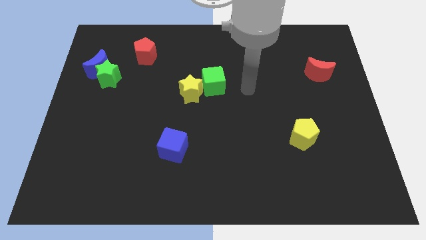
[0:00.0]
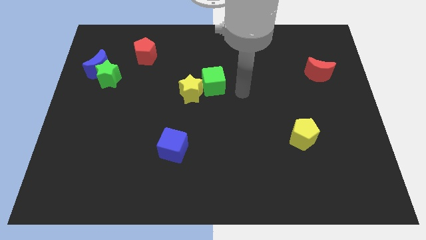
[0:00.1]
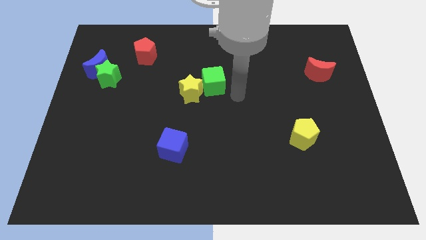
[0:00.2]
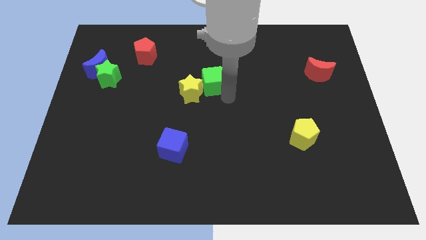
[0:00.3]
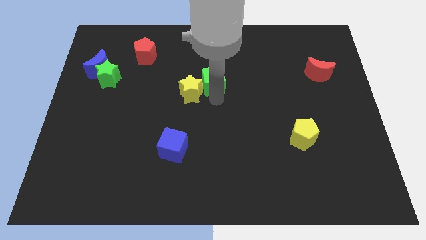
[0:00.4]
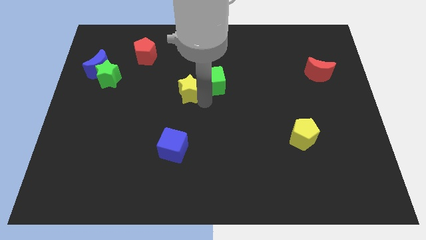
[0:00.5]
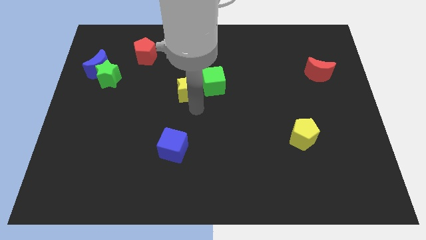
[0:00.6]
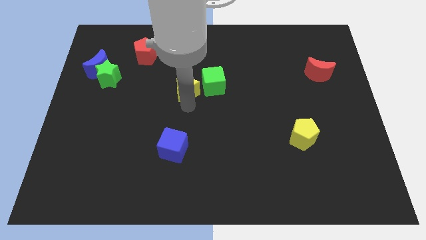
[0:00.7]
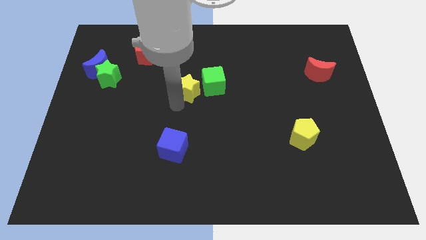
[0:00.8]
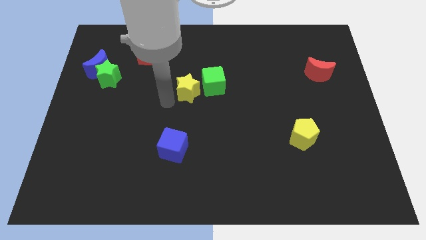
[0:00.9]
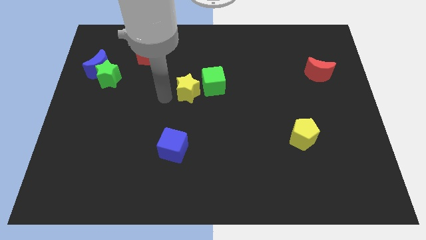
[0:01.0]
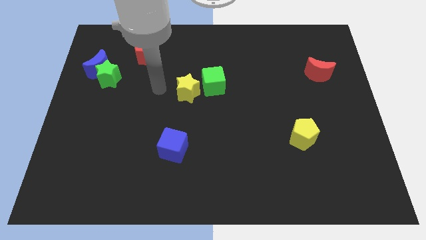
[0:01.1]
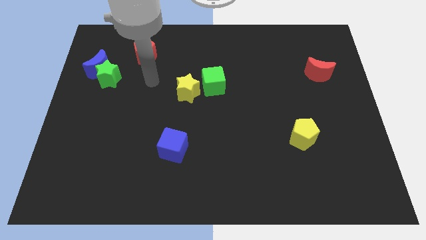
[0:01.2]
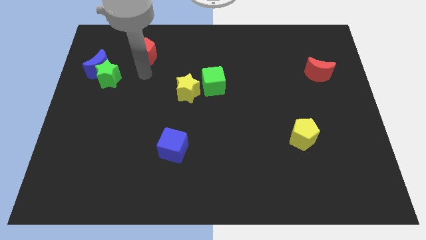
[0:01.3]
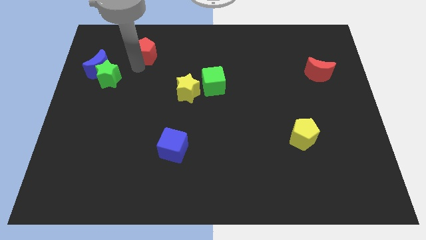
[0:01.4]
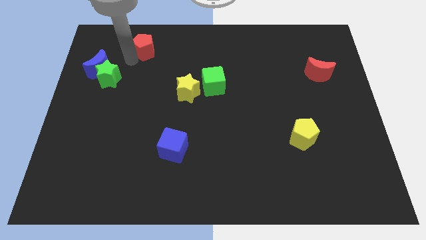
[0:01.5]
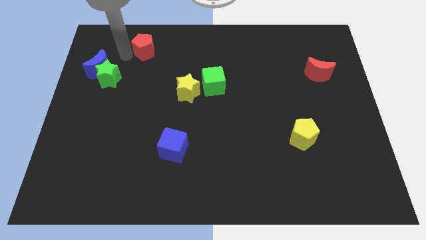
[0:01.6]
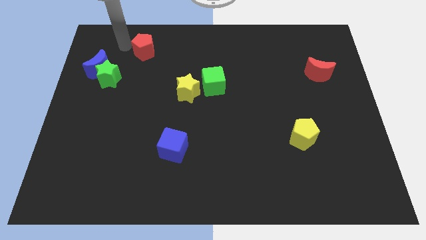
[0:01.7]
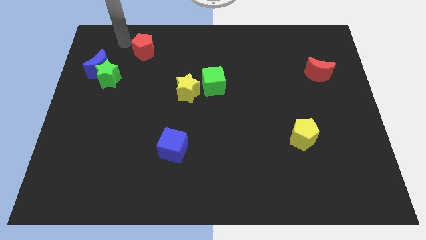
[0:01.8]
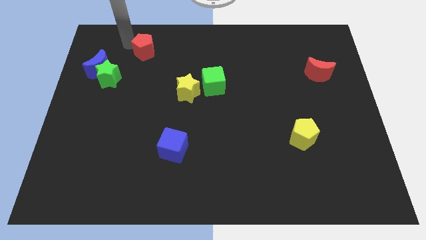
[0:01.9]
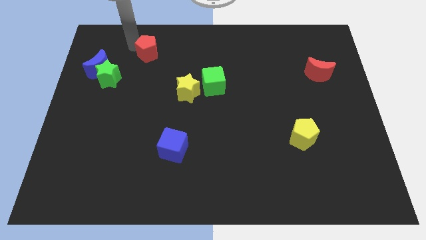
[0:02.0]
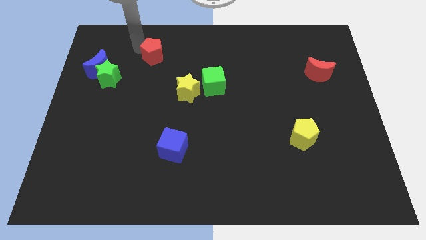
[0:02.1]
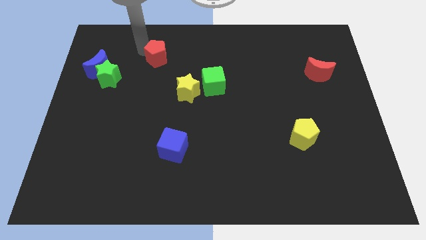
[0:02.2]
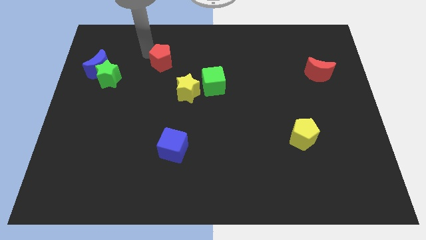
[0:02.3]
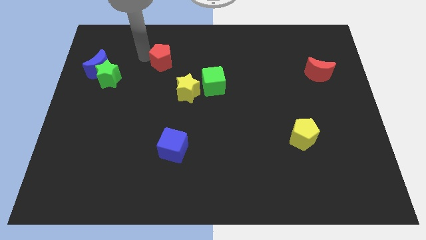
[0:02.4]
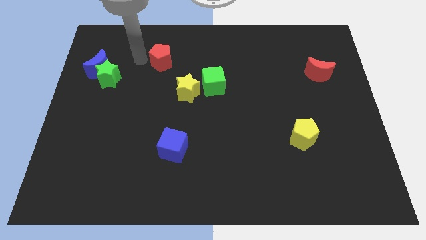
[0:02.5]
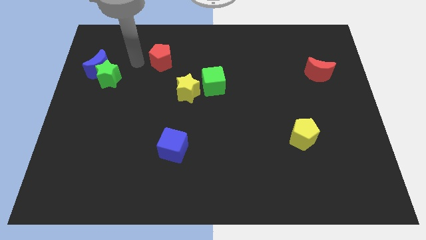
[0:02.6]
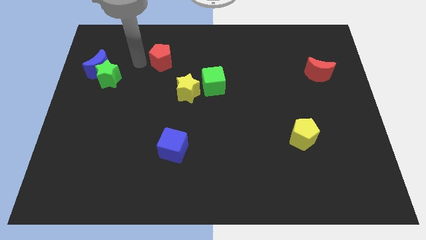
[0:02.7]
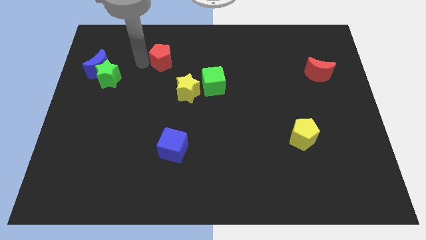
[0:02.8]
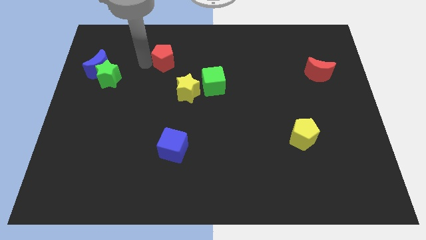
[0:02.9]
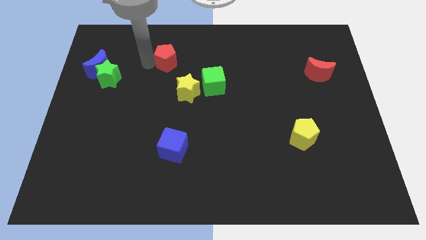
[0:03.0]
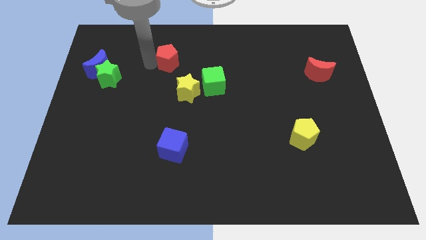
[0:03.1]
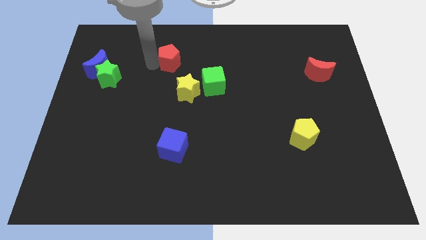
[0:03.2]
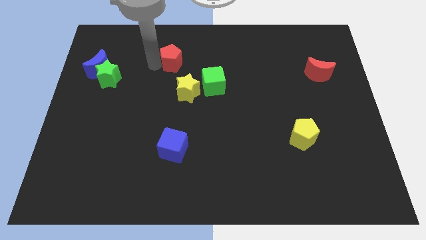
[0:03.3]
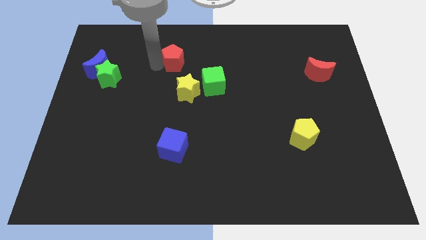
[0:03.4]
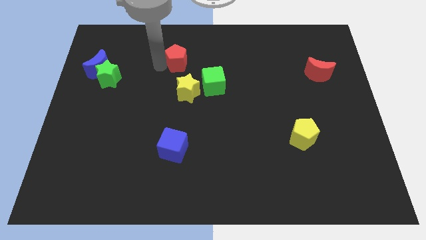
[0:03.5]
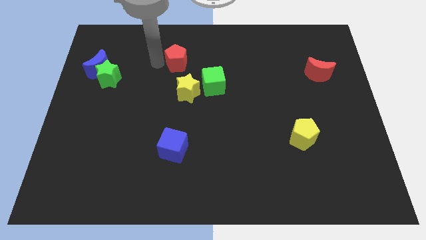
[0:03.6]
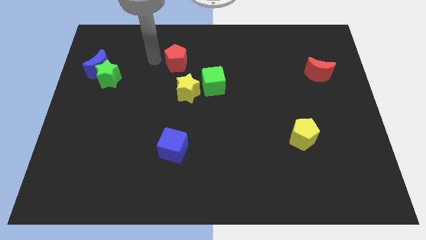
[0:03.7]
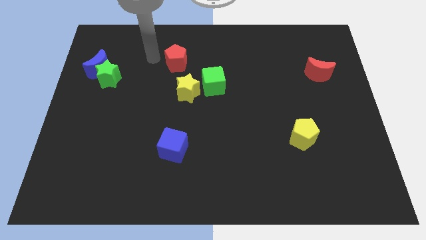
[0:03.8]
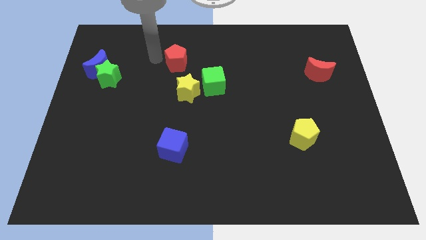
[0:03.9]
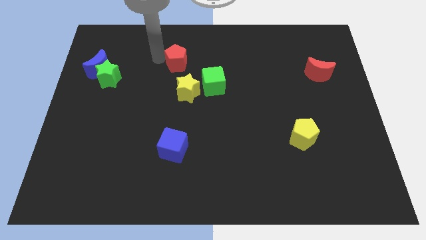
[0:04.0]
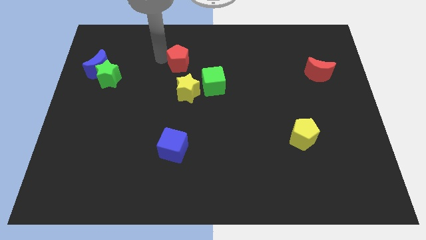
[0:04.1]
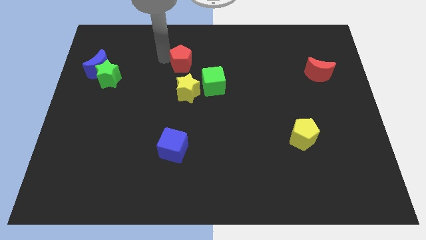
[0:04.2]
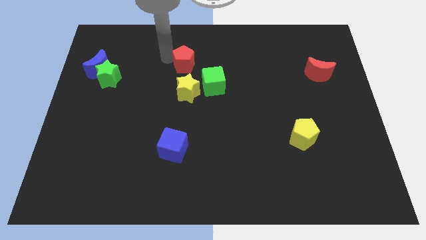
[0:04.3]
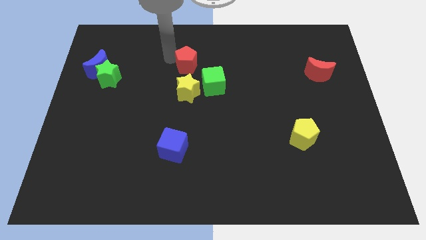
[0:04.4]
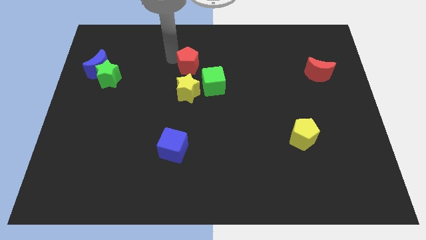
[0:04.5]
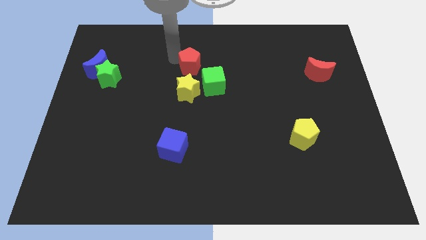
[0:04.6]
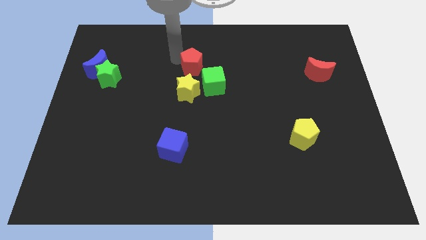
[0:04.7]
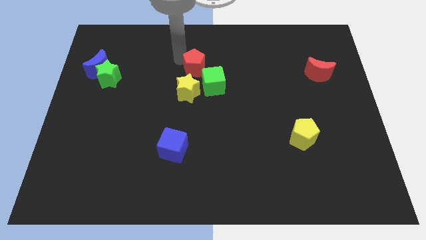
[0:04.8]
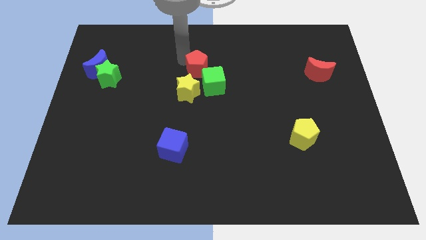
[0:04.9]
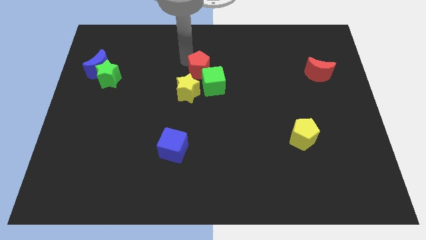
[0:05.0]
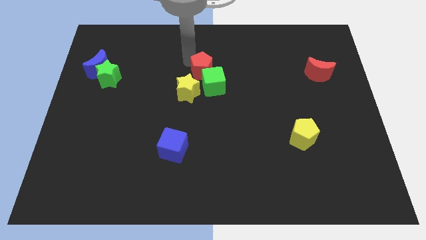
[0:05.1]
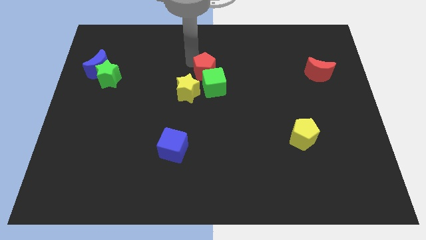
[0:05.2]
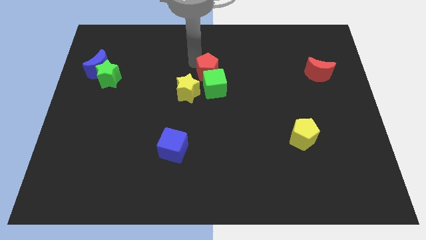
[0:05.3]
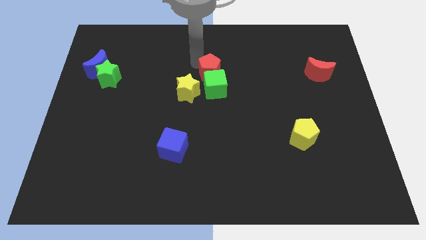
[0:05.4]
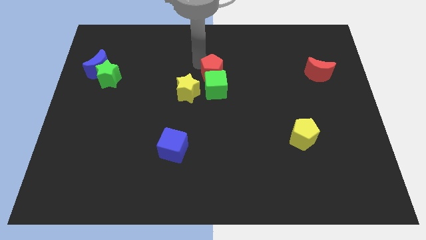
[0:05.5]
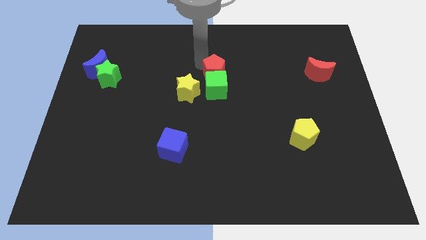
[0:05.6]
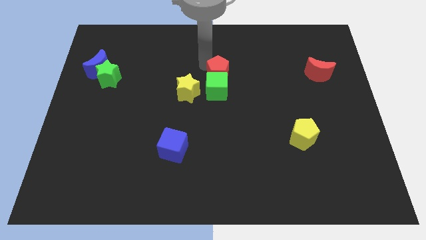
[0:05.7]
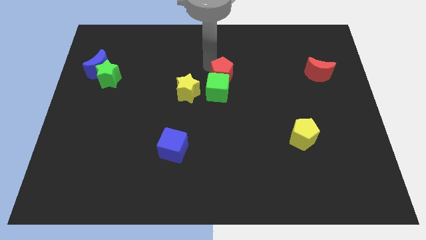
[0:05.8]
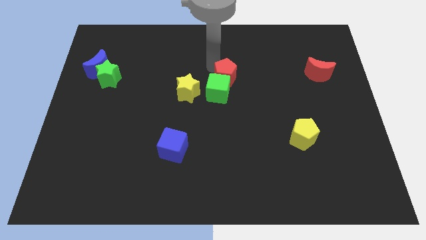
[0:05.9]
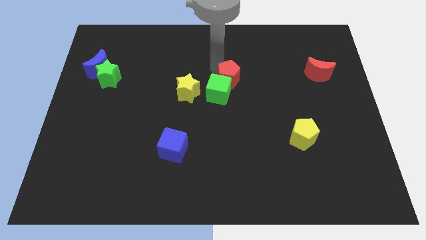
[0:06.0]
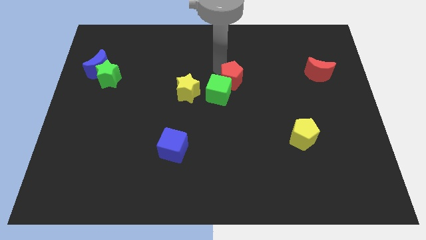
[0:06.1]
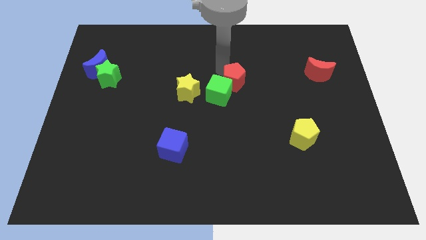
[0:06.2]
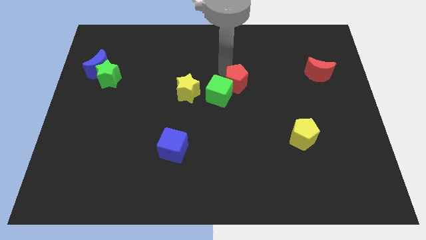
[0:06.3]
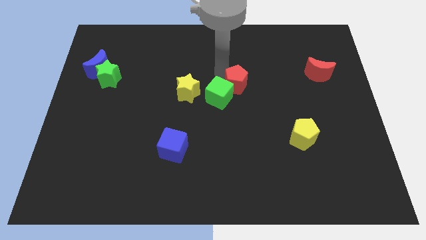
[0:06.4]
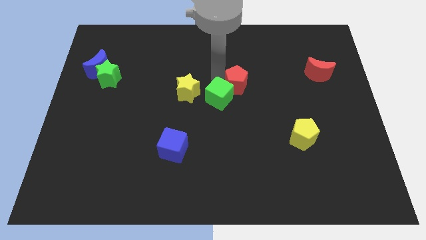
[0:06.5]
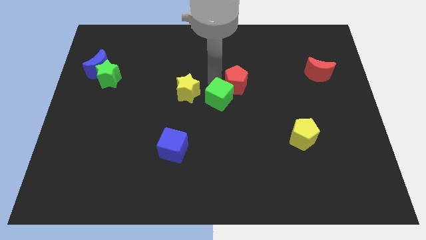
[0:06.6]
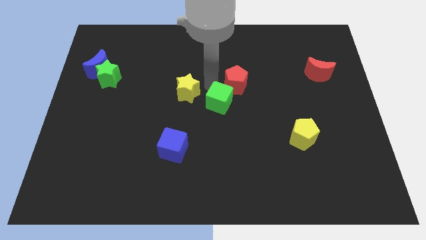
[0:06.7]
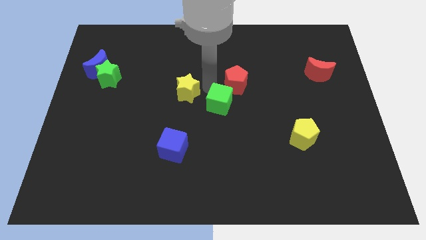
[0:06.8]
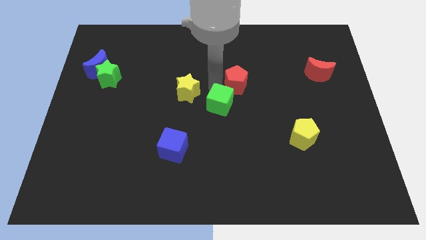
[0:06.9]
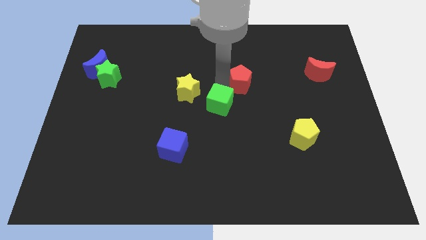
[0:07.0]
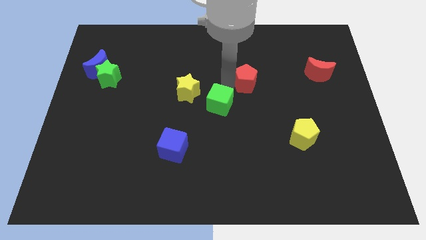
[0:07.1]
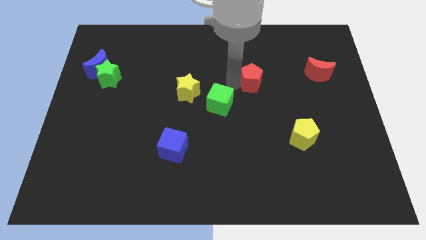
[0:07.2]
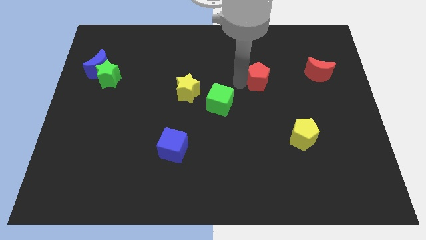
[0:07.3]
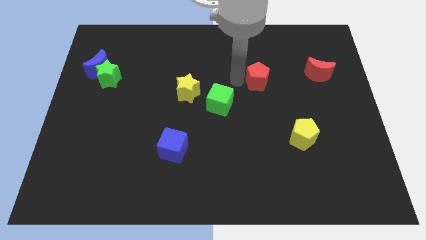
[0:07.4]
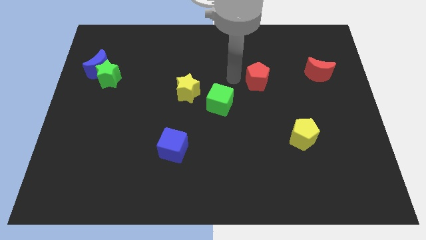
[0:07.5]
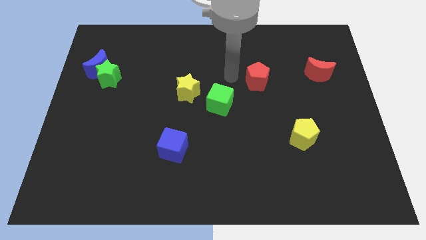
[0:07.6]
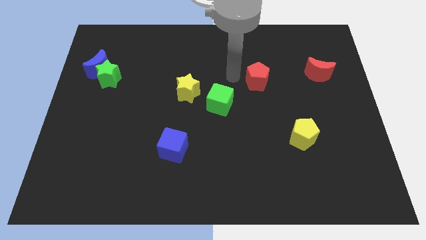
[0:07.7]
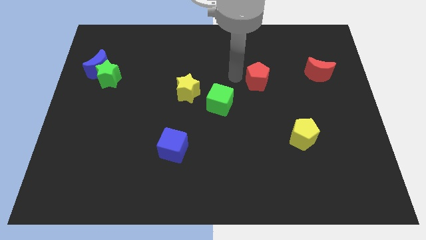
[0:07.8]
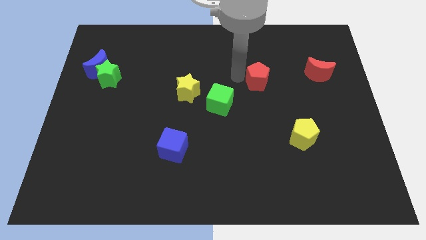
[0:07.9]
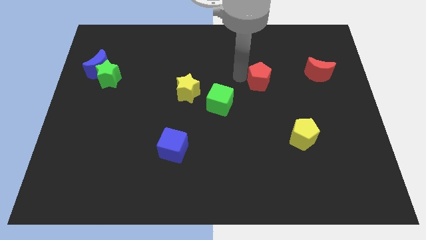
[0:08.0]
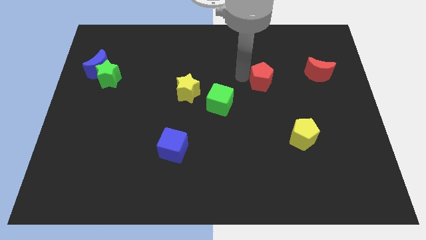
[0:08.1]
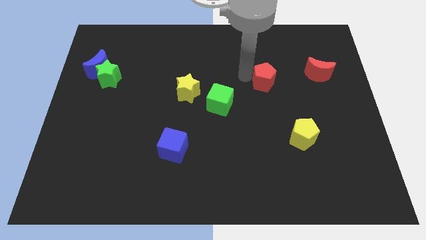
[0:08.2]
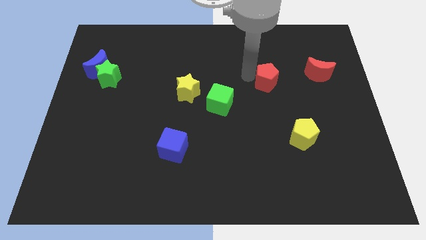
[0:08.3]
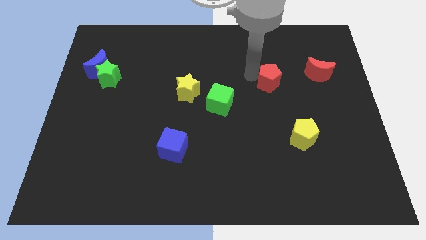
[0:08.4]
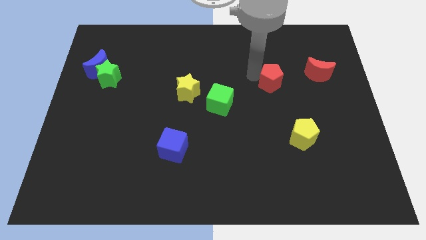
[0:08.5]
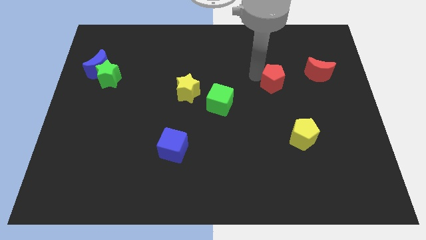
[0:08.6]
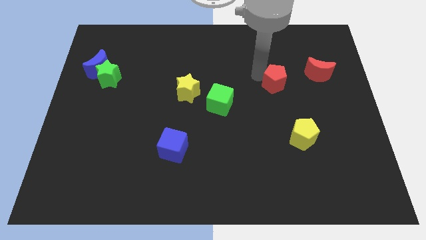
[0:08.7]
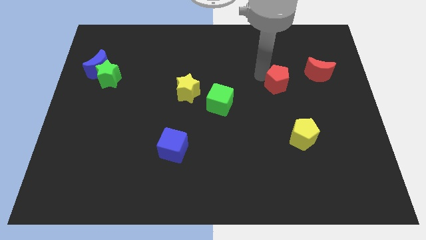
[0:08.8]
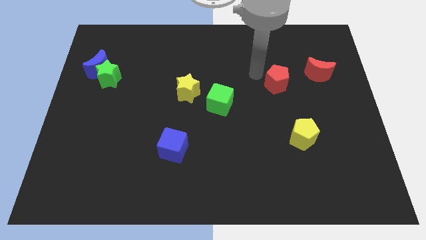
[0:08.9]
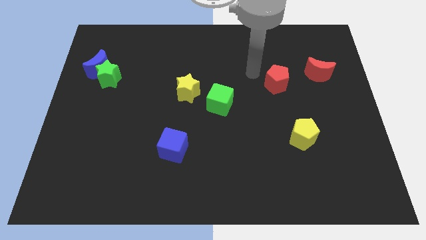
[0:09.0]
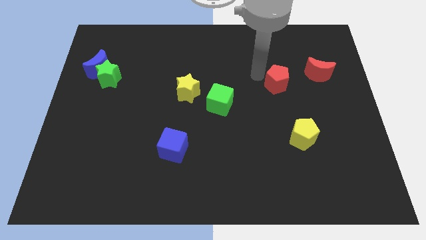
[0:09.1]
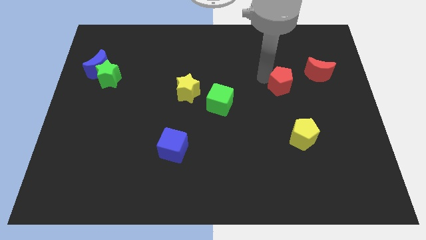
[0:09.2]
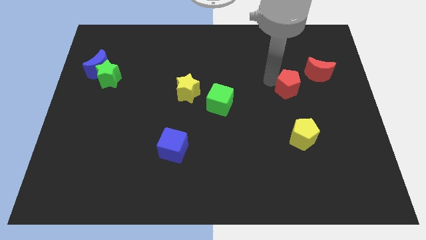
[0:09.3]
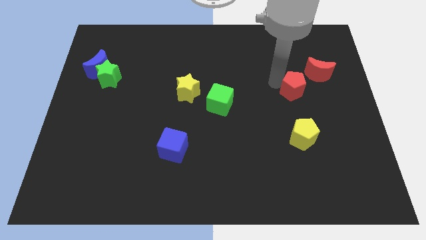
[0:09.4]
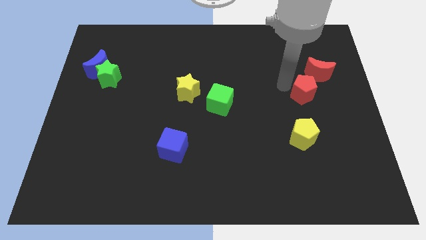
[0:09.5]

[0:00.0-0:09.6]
slide the red pentagon below the red moon
